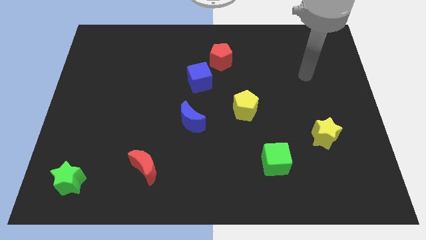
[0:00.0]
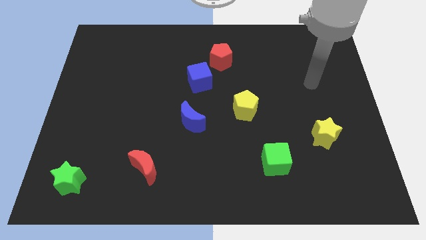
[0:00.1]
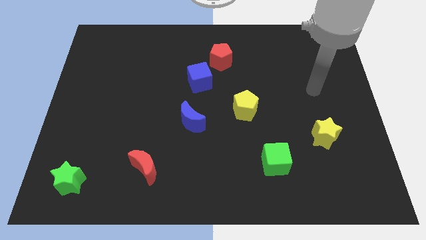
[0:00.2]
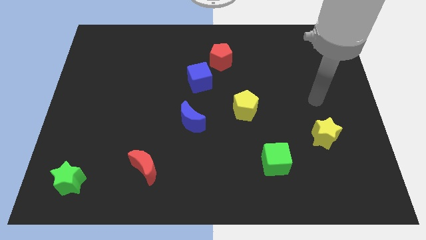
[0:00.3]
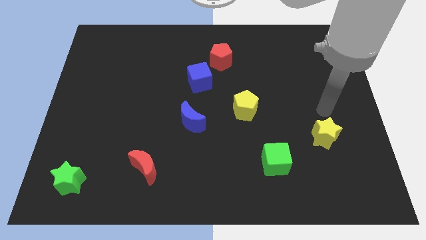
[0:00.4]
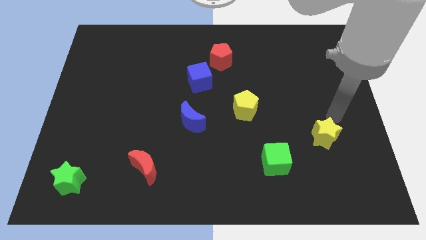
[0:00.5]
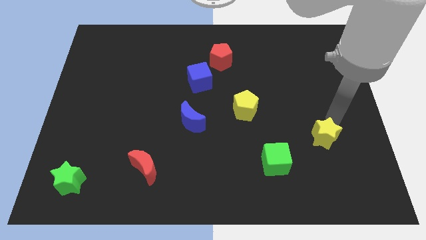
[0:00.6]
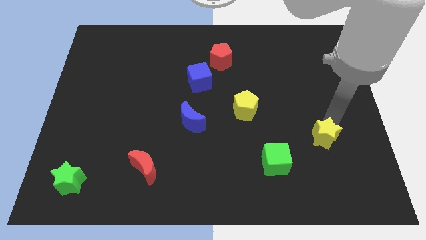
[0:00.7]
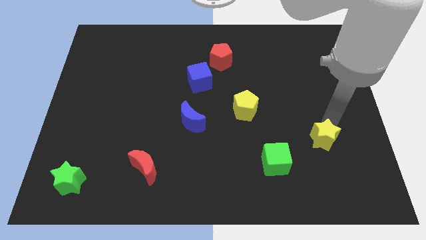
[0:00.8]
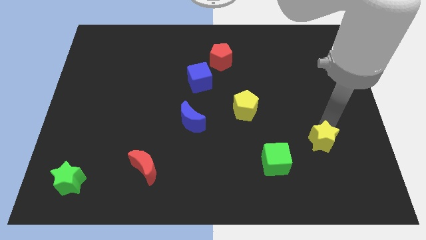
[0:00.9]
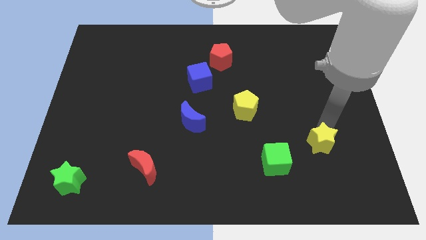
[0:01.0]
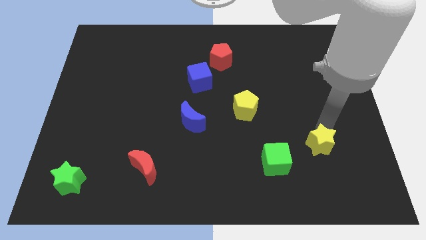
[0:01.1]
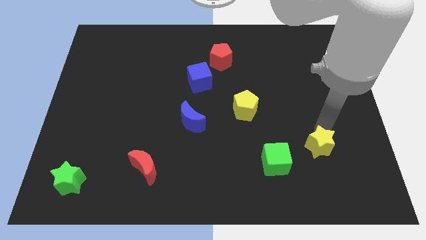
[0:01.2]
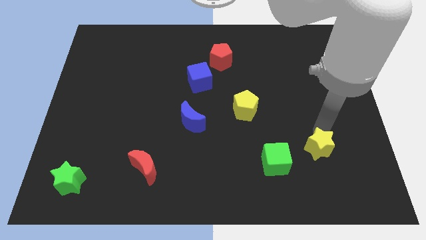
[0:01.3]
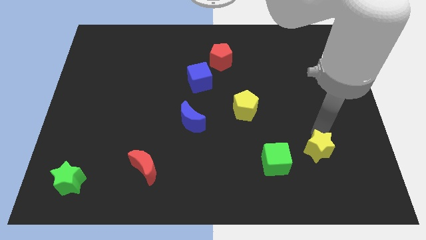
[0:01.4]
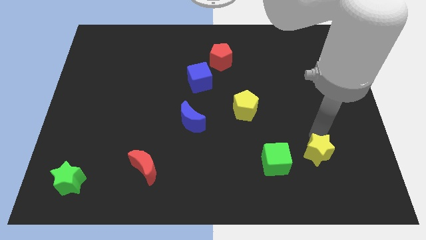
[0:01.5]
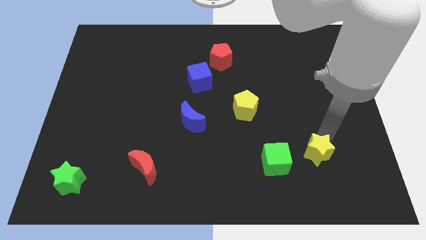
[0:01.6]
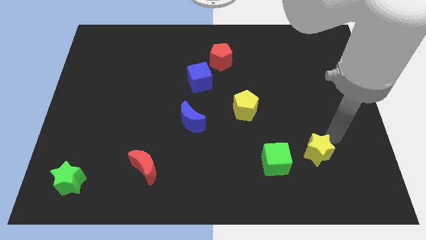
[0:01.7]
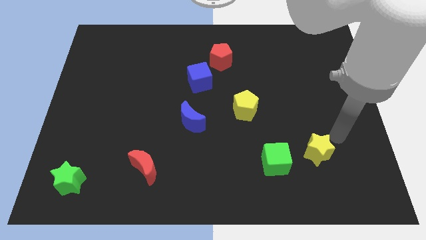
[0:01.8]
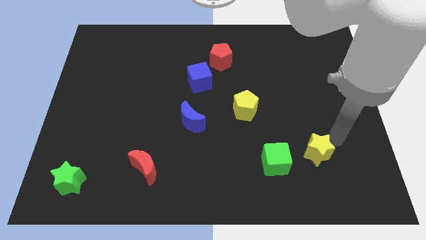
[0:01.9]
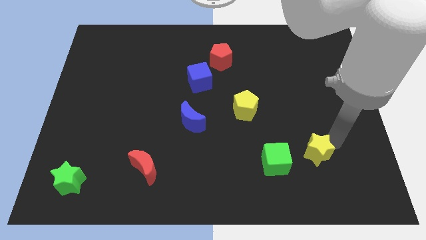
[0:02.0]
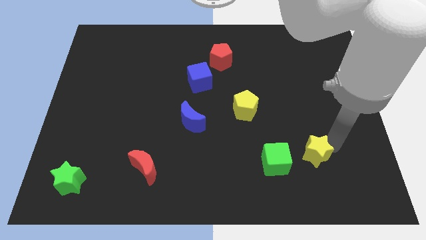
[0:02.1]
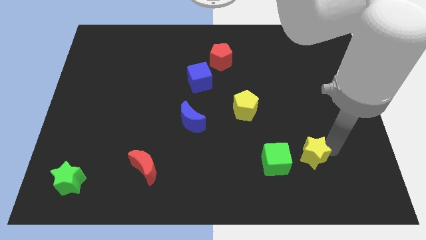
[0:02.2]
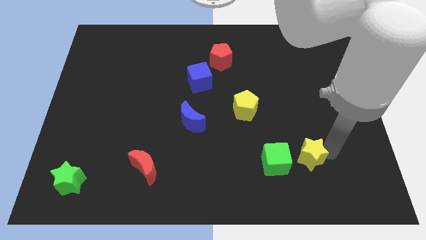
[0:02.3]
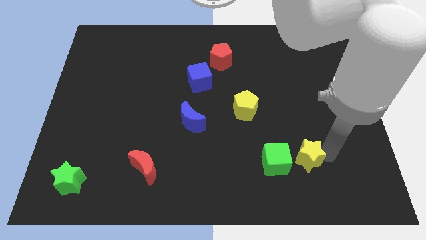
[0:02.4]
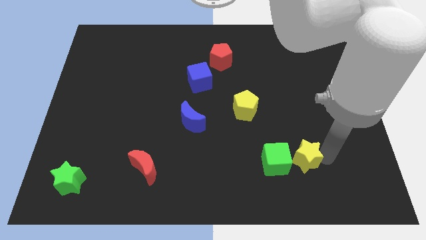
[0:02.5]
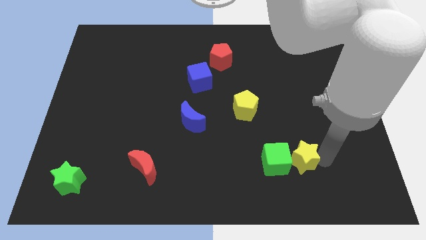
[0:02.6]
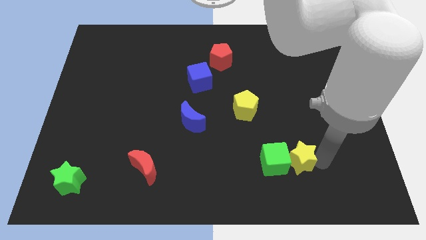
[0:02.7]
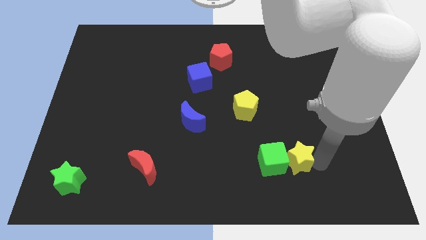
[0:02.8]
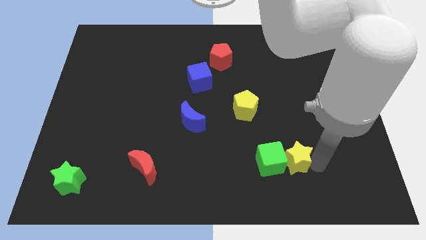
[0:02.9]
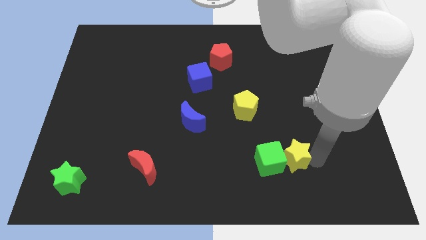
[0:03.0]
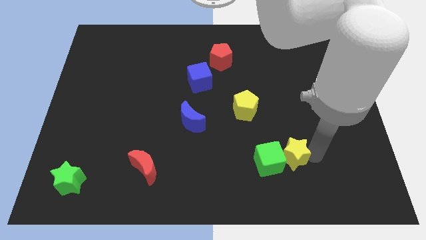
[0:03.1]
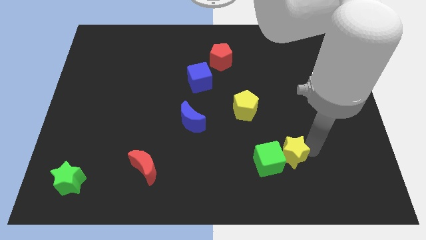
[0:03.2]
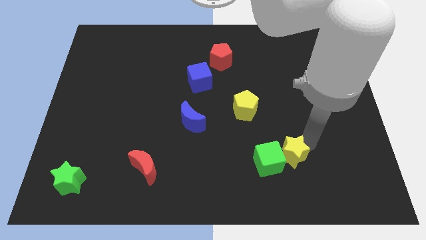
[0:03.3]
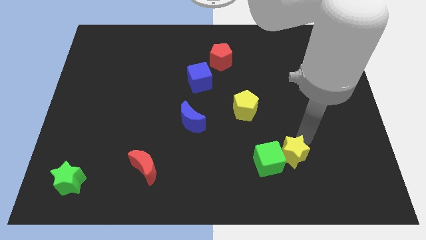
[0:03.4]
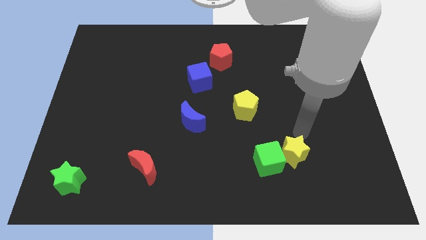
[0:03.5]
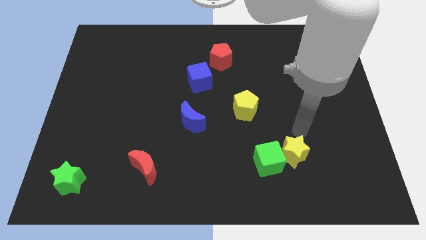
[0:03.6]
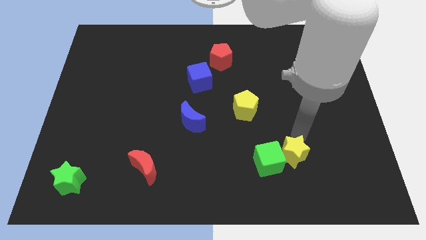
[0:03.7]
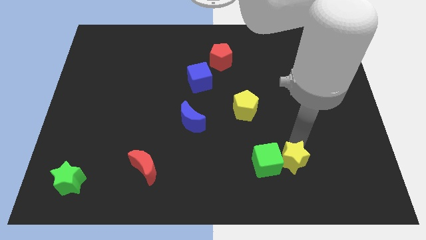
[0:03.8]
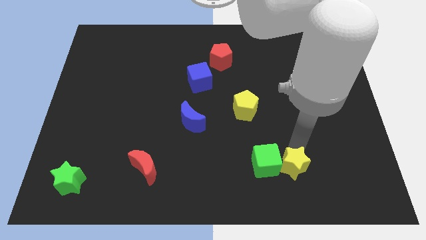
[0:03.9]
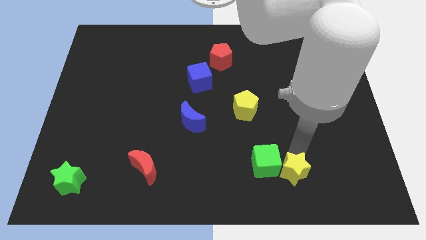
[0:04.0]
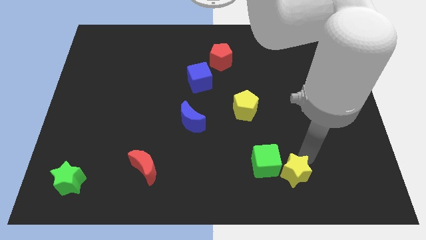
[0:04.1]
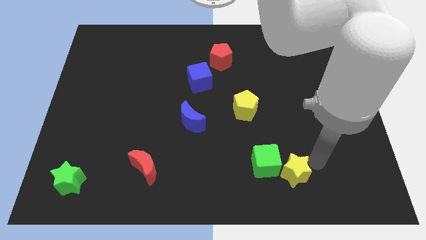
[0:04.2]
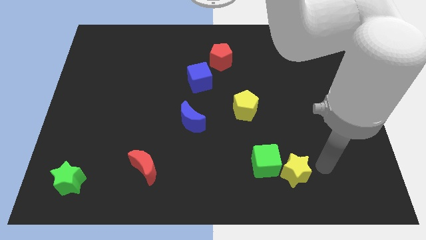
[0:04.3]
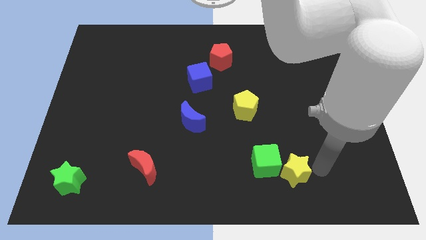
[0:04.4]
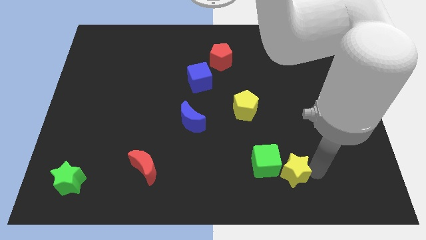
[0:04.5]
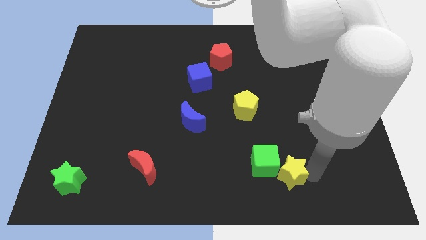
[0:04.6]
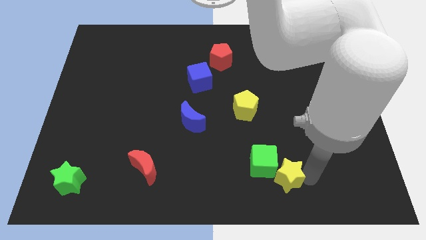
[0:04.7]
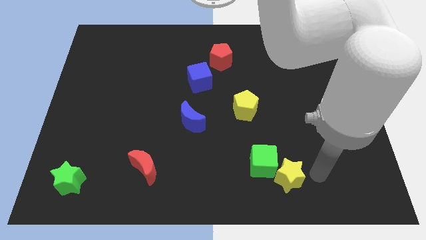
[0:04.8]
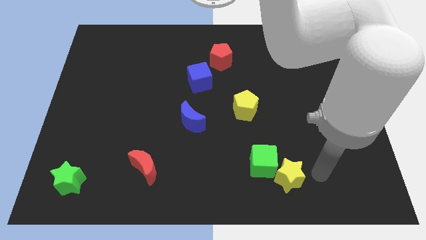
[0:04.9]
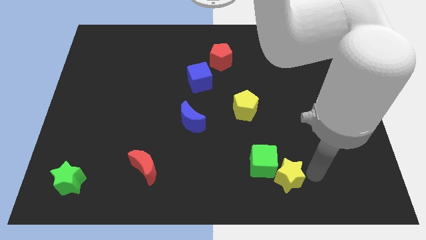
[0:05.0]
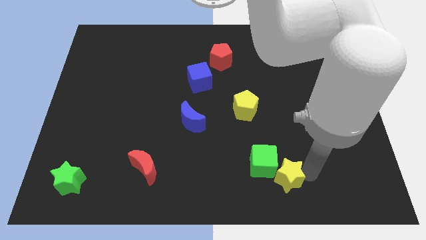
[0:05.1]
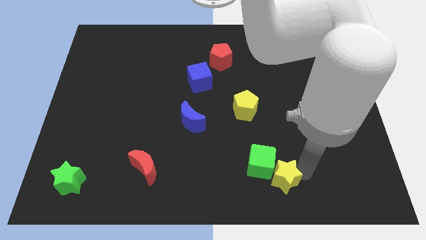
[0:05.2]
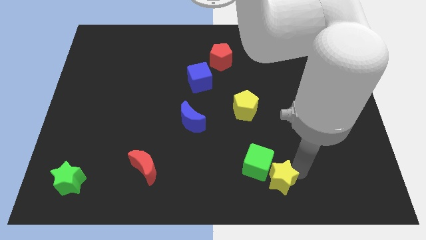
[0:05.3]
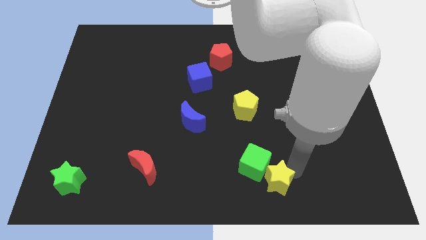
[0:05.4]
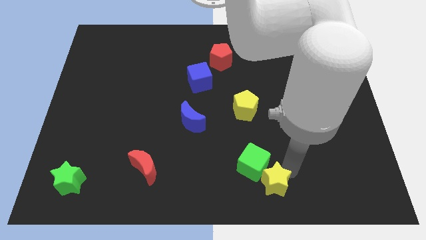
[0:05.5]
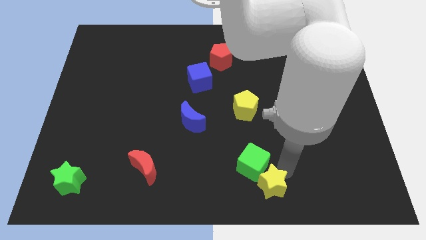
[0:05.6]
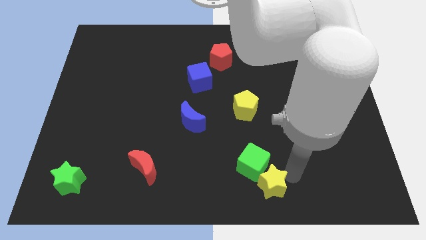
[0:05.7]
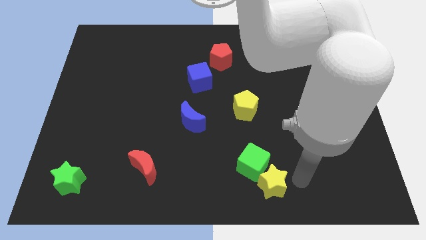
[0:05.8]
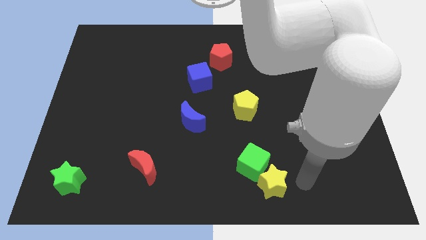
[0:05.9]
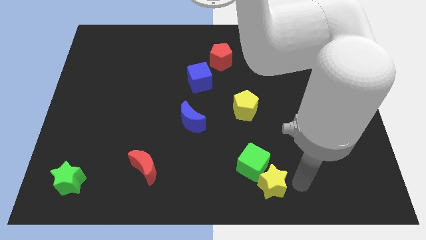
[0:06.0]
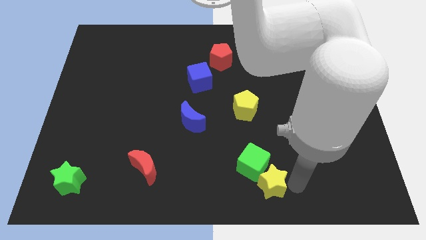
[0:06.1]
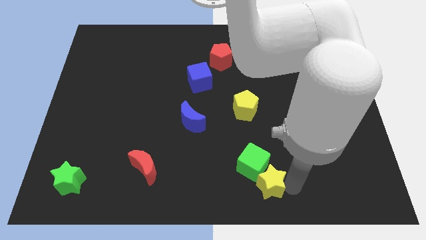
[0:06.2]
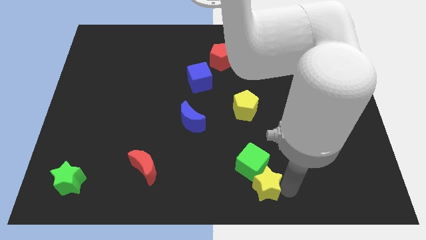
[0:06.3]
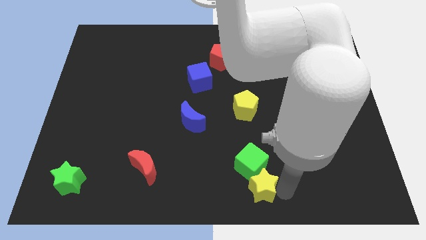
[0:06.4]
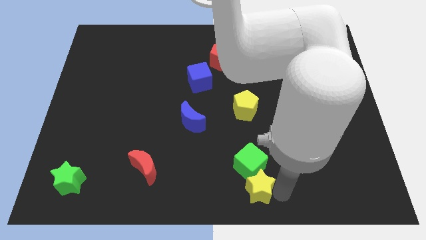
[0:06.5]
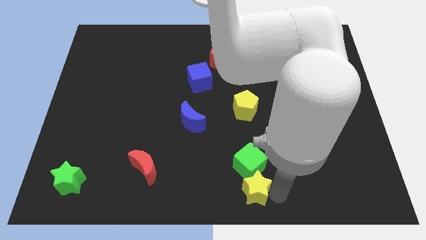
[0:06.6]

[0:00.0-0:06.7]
push the yellow star to the bottom left side of the green cube
